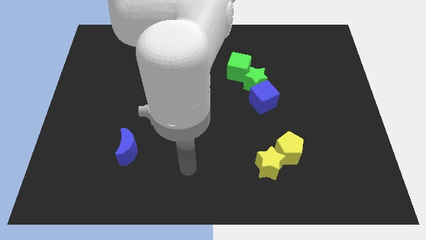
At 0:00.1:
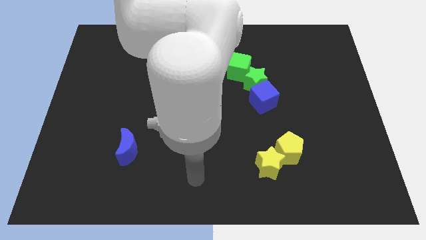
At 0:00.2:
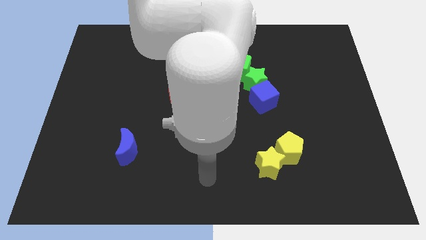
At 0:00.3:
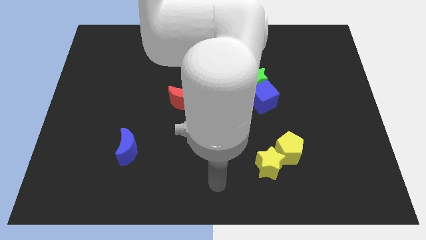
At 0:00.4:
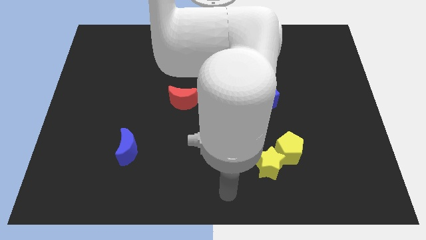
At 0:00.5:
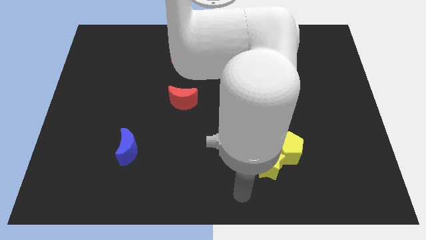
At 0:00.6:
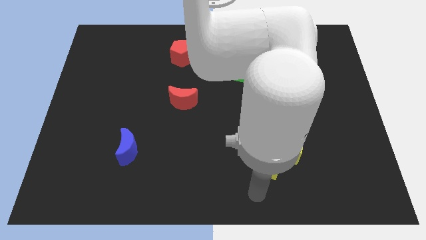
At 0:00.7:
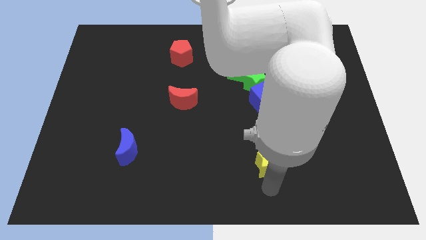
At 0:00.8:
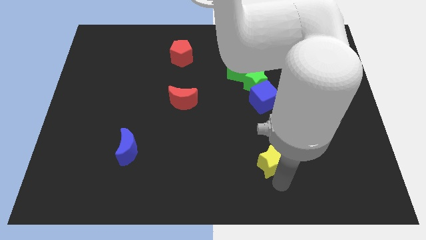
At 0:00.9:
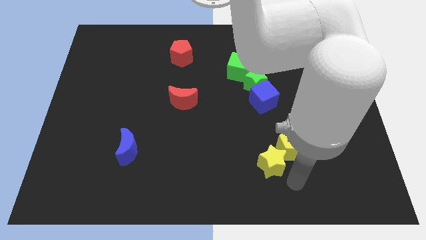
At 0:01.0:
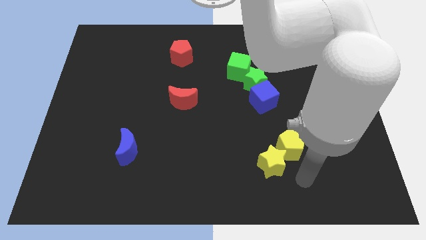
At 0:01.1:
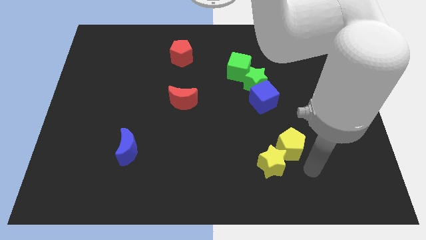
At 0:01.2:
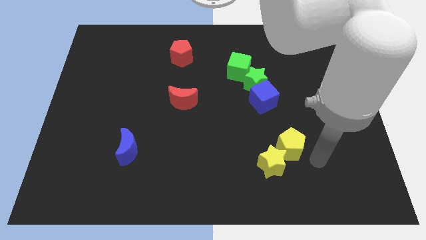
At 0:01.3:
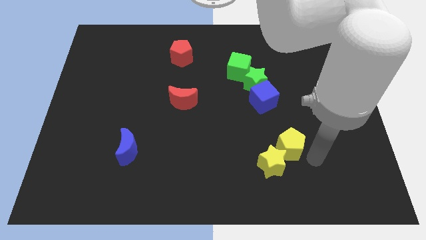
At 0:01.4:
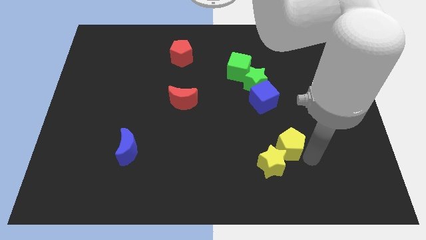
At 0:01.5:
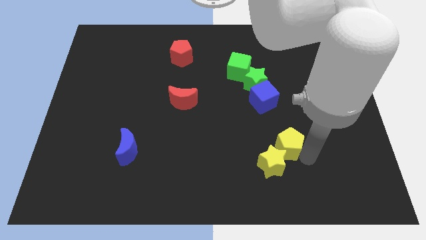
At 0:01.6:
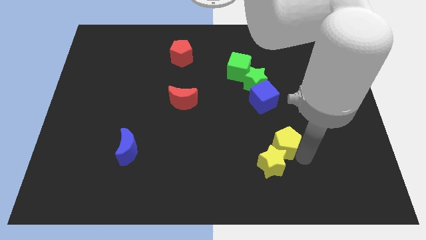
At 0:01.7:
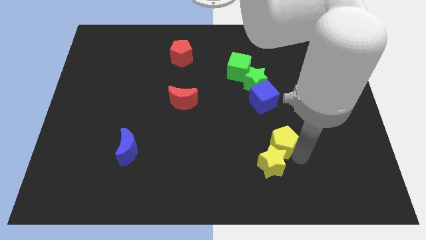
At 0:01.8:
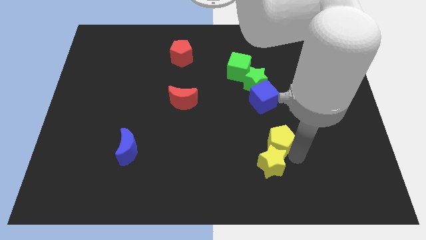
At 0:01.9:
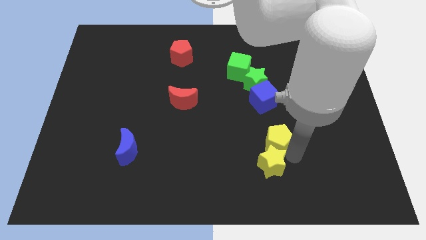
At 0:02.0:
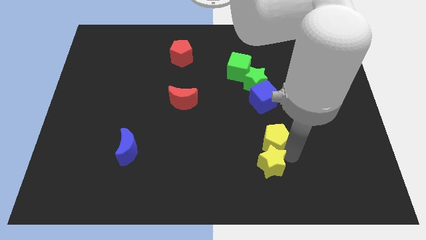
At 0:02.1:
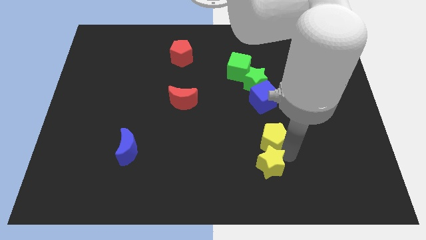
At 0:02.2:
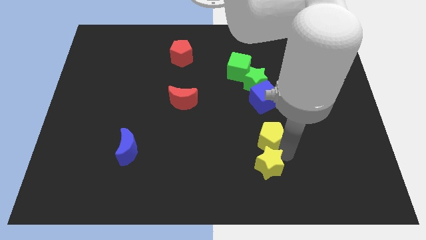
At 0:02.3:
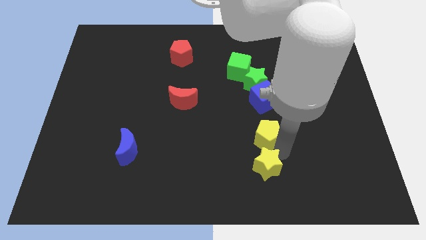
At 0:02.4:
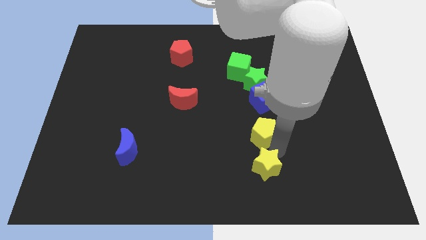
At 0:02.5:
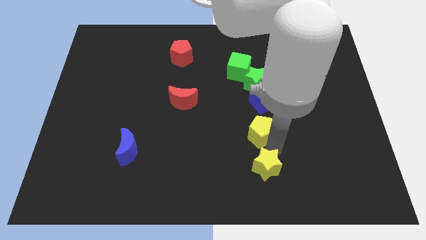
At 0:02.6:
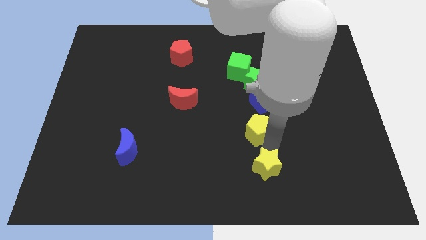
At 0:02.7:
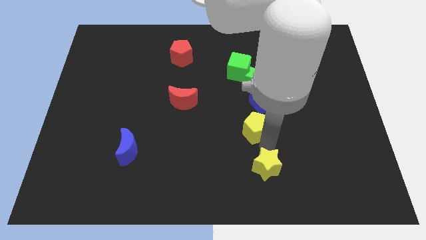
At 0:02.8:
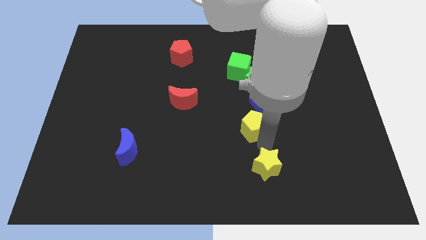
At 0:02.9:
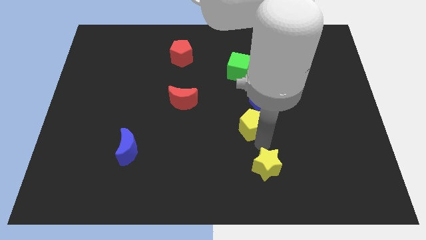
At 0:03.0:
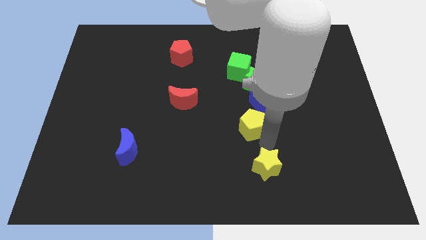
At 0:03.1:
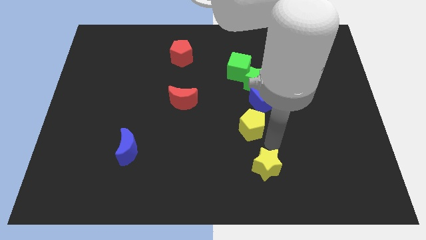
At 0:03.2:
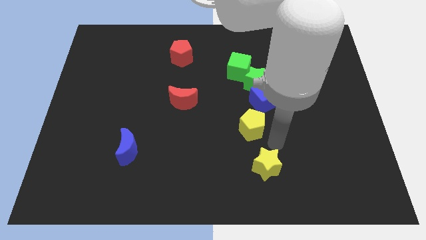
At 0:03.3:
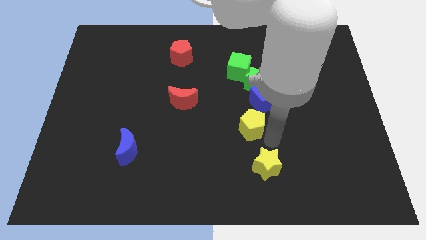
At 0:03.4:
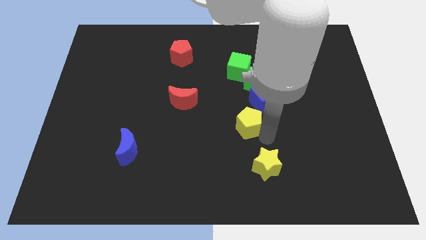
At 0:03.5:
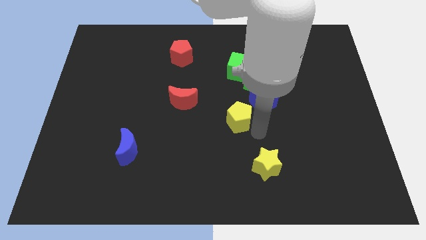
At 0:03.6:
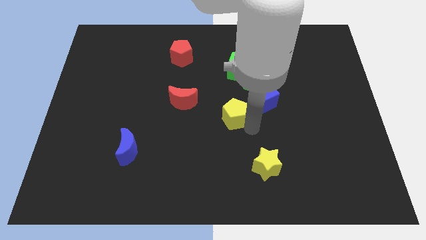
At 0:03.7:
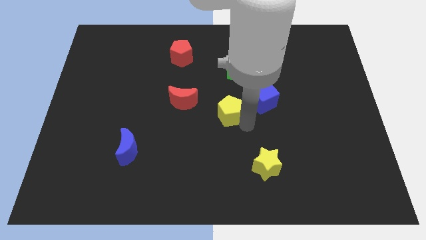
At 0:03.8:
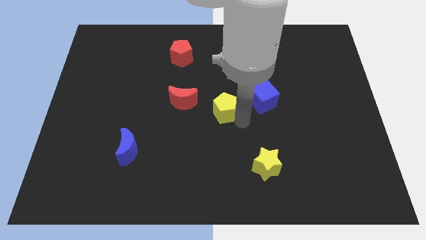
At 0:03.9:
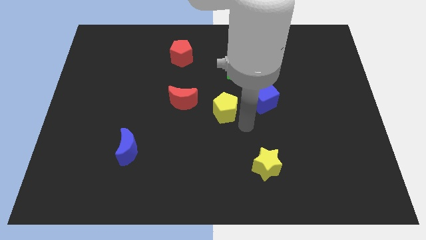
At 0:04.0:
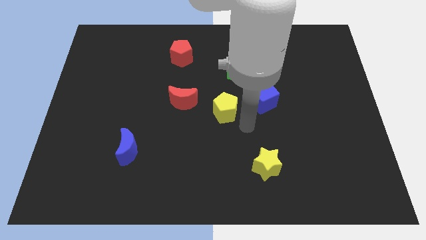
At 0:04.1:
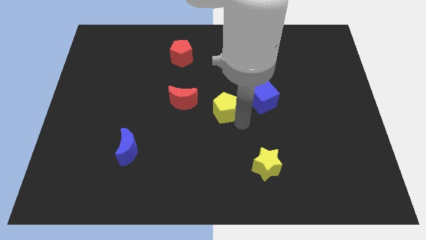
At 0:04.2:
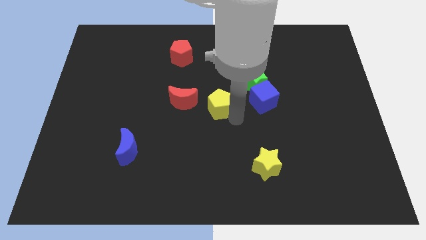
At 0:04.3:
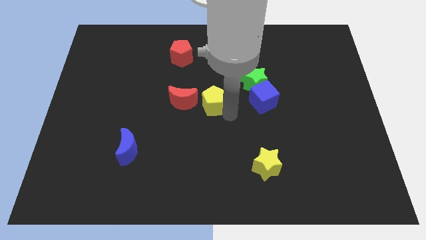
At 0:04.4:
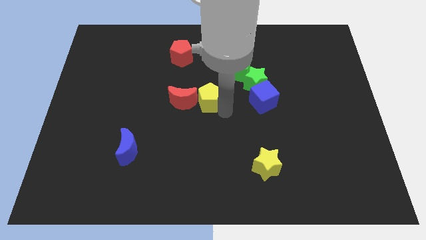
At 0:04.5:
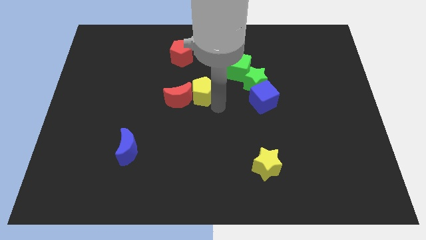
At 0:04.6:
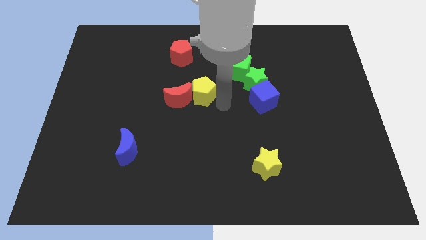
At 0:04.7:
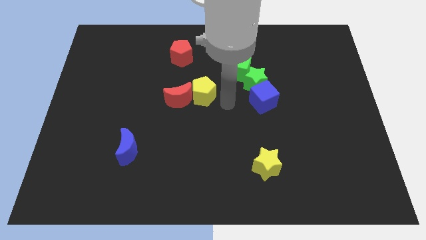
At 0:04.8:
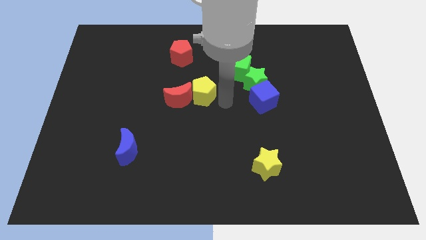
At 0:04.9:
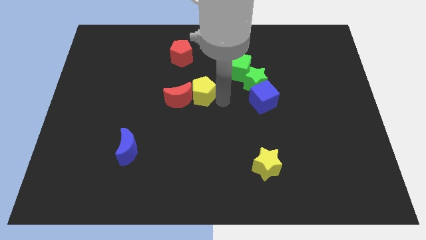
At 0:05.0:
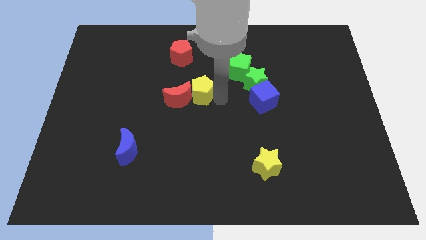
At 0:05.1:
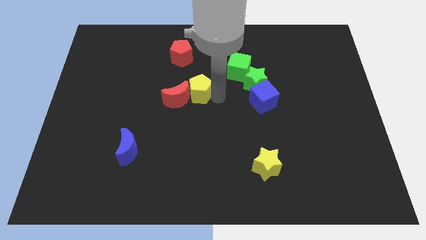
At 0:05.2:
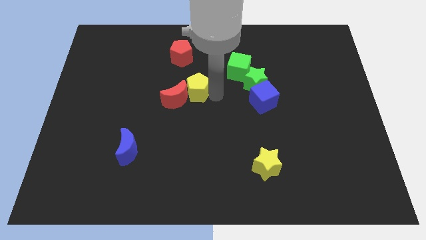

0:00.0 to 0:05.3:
slide the yellow pentagon below the red pentagon
